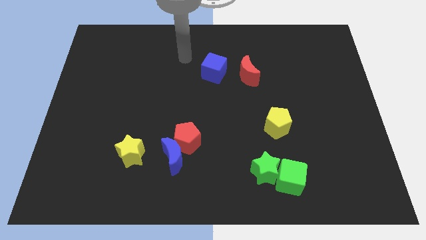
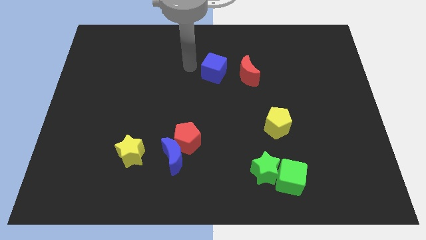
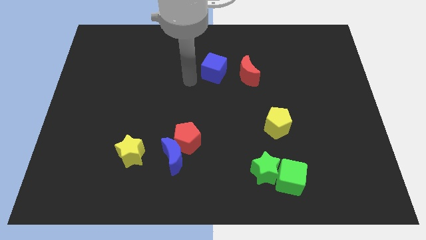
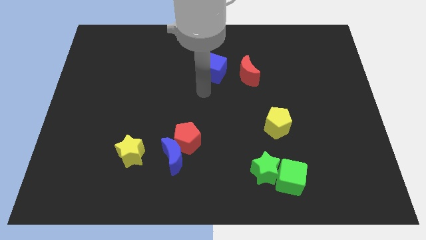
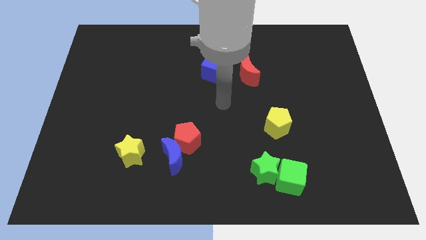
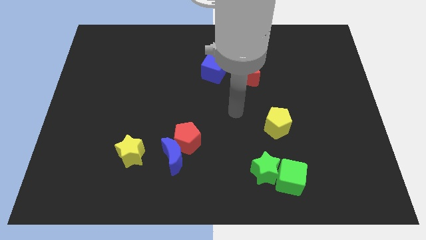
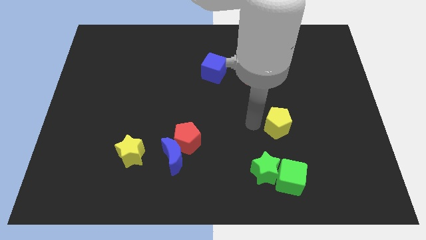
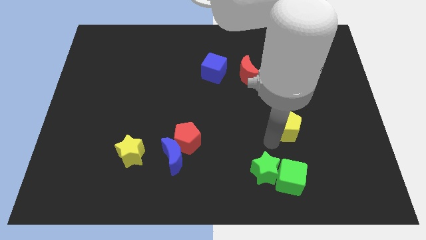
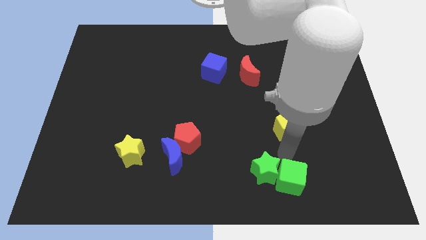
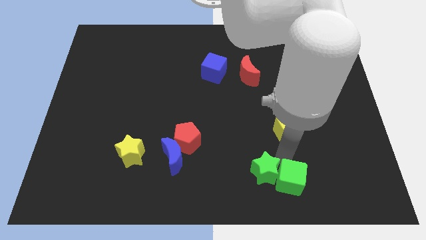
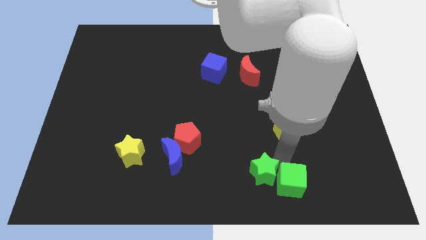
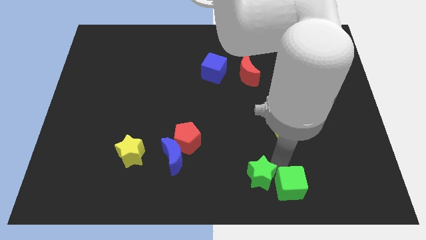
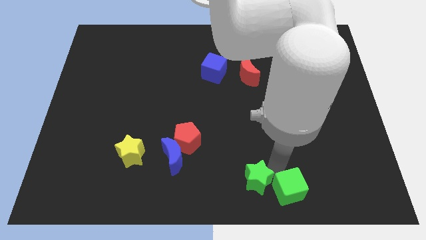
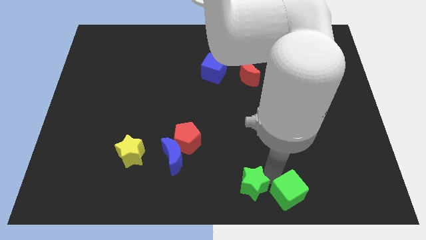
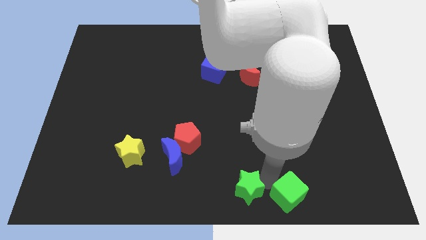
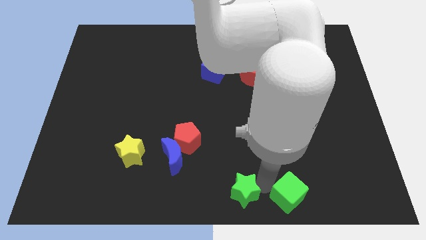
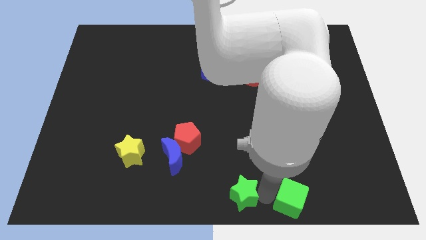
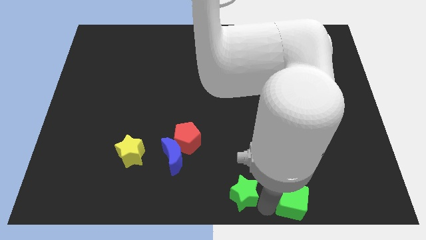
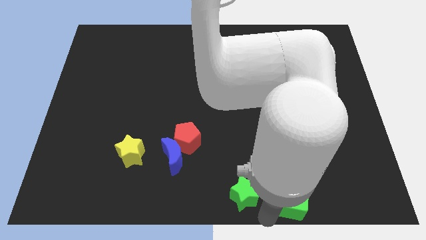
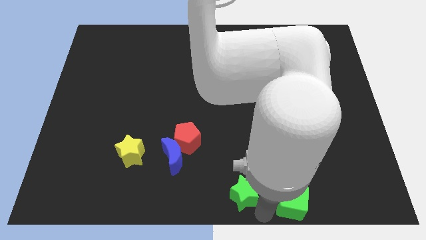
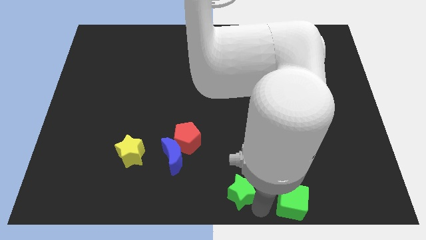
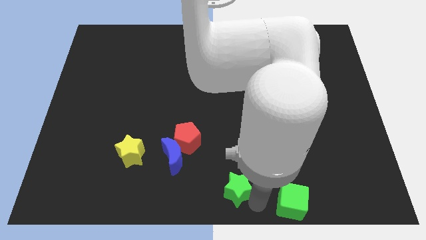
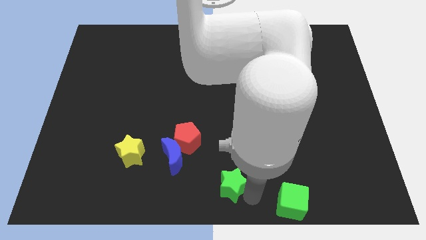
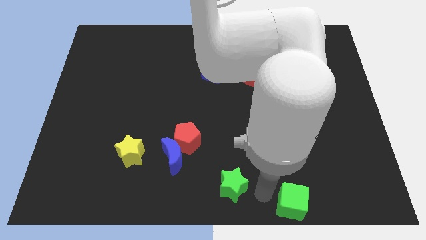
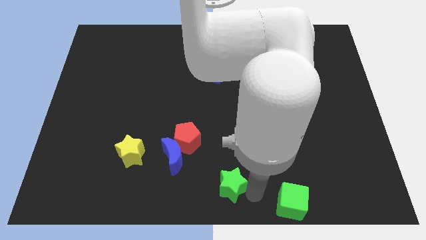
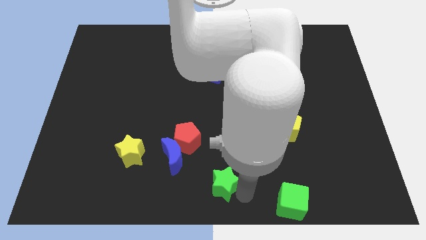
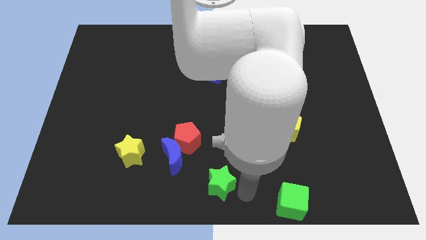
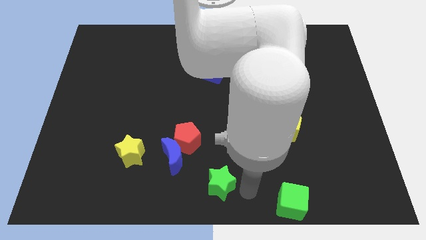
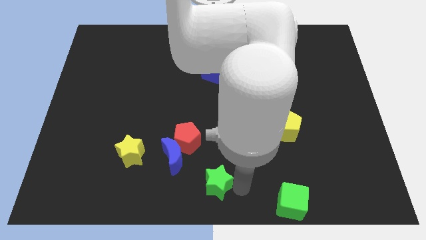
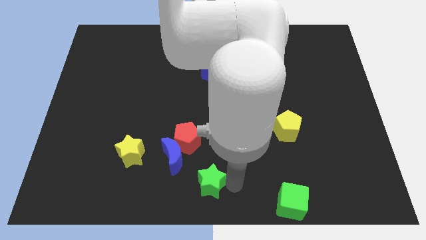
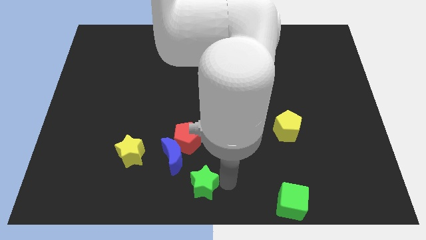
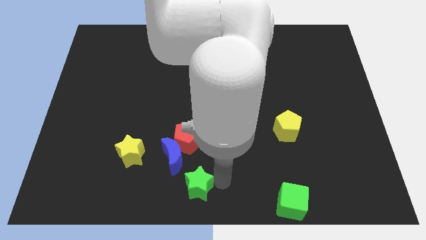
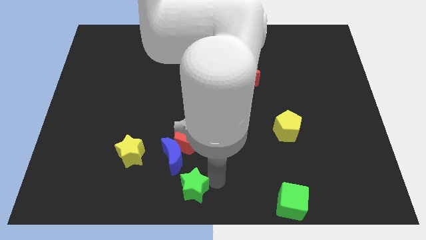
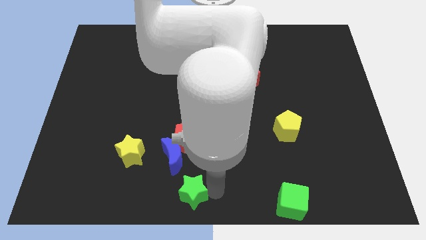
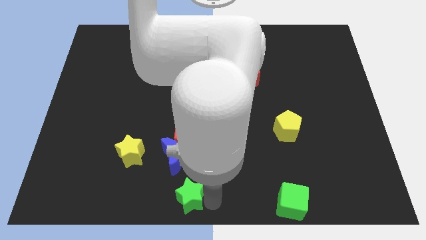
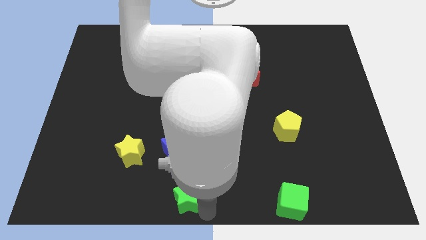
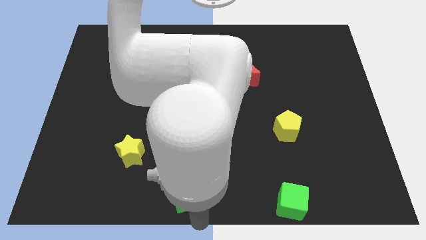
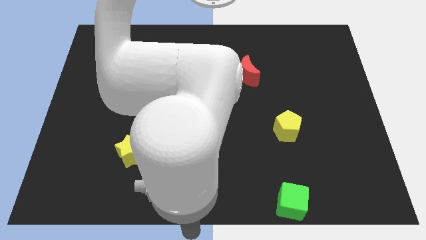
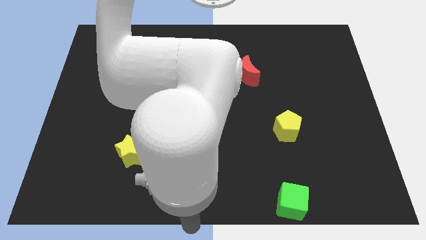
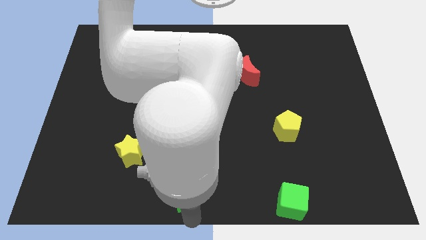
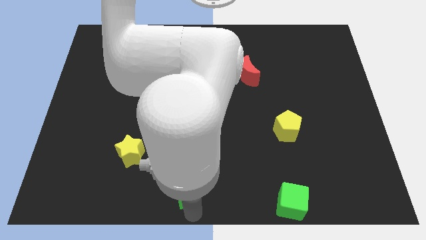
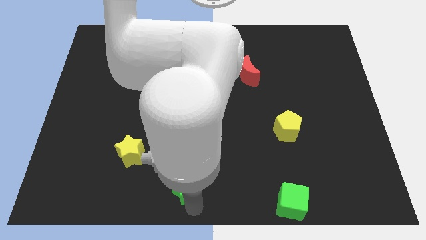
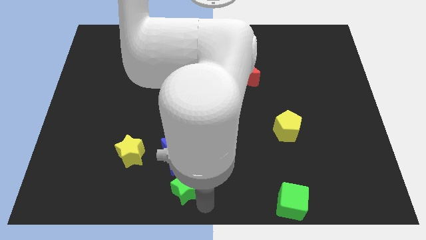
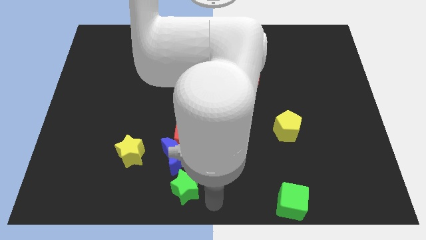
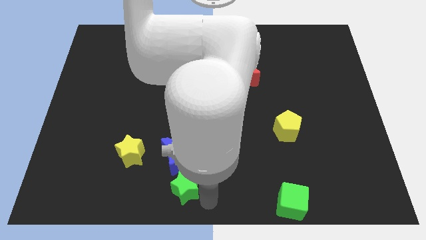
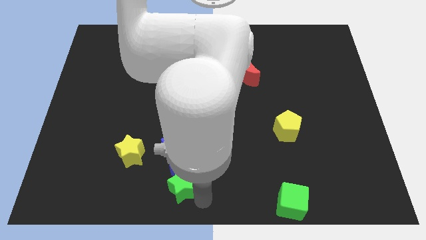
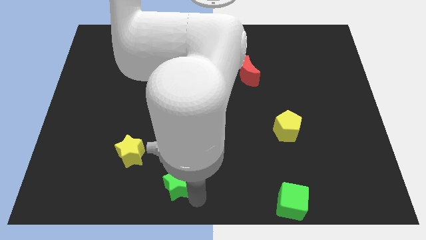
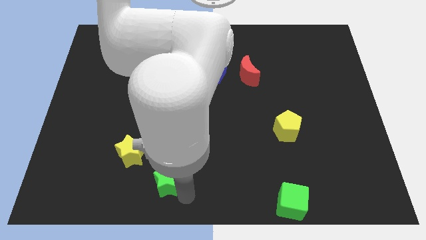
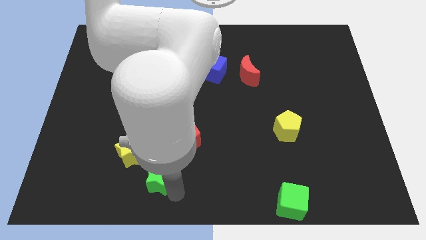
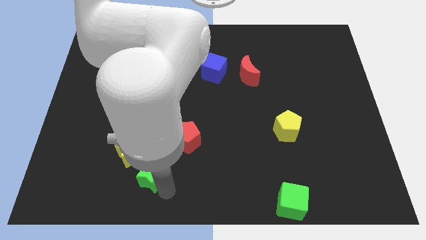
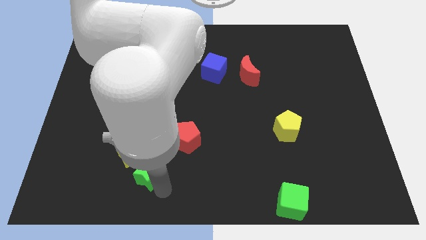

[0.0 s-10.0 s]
slide the green star next to the yellow star

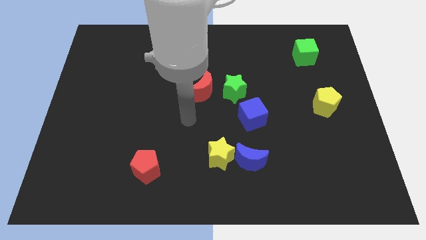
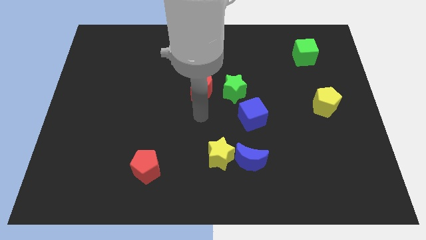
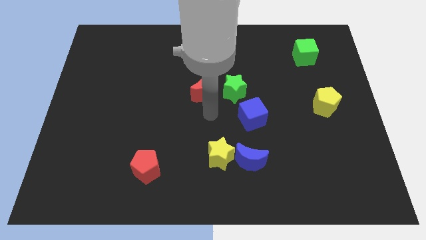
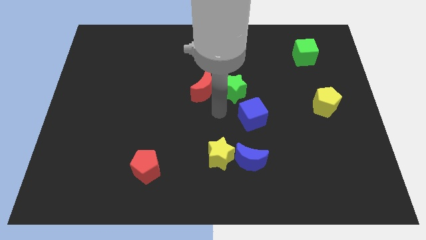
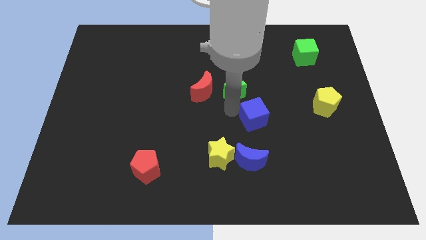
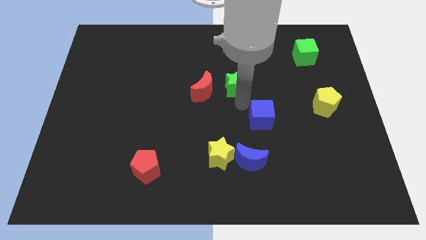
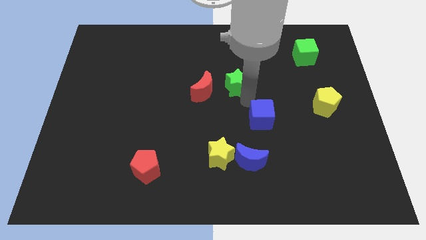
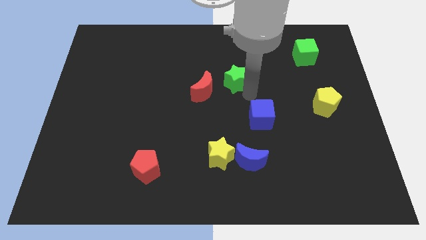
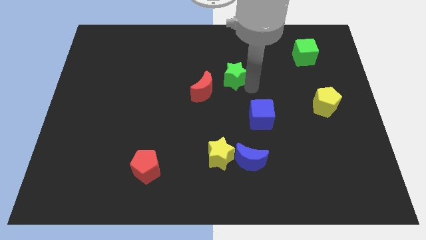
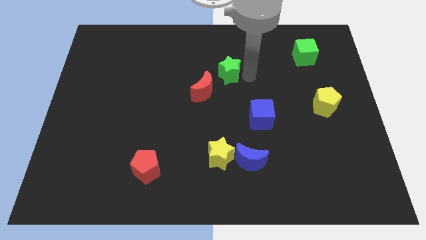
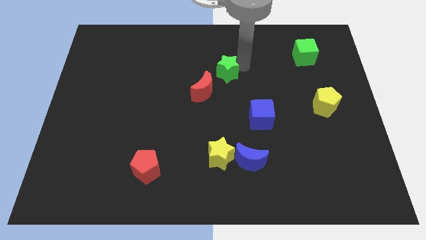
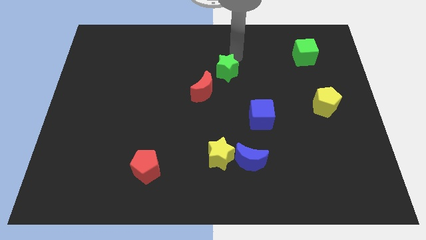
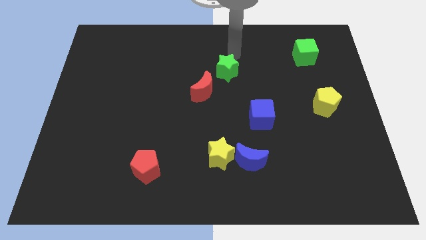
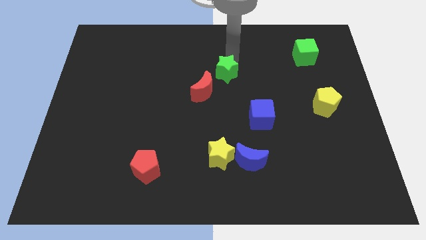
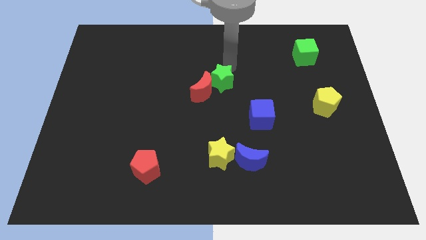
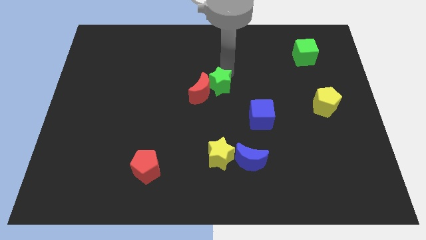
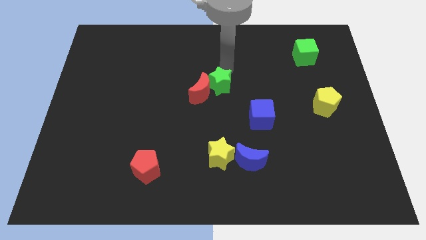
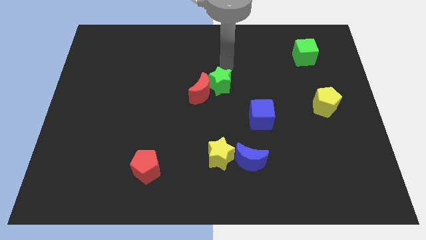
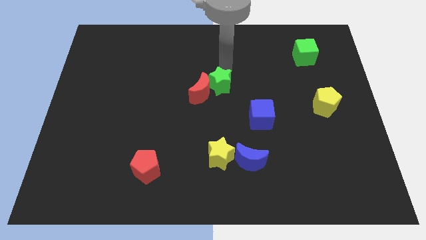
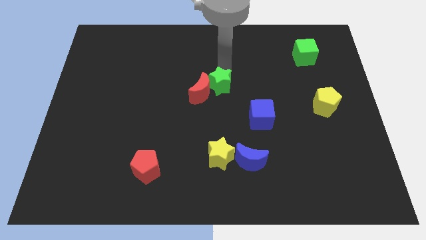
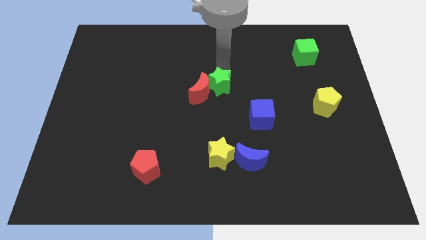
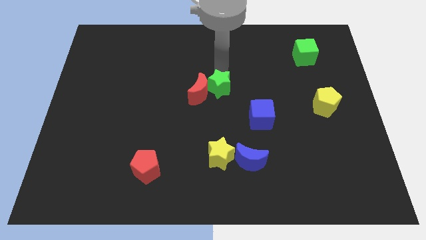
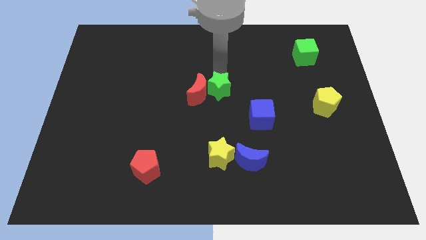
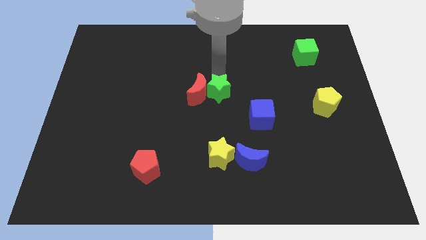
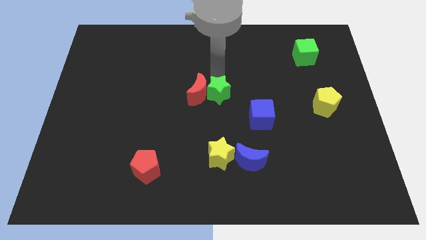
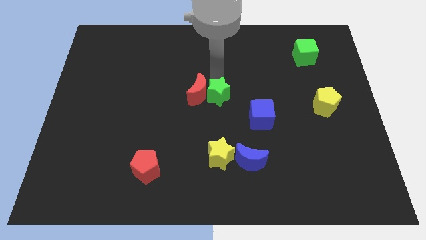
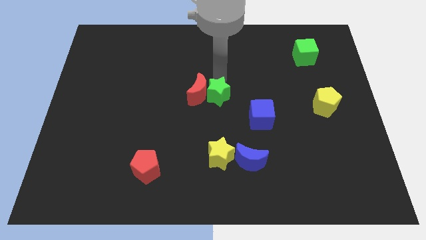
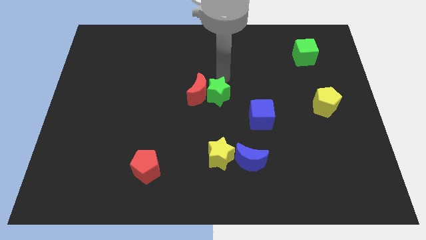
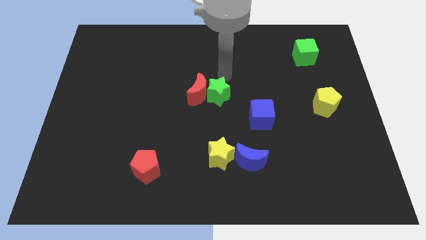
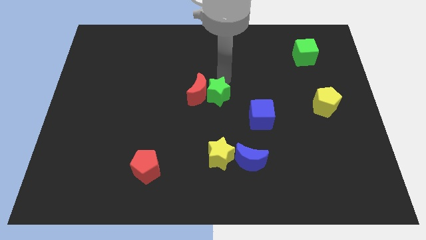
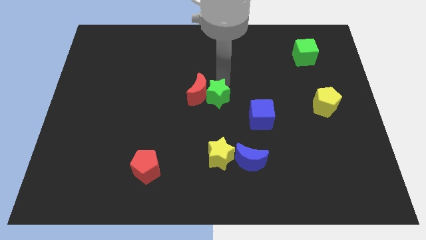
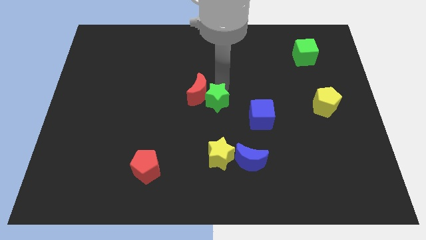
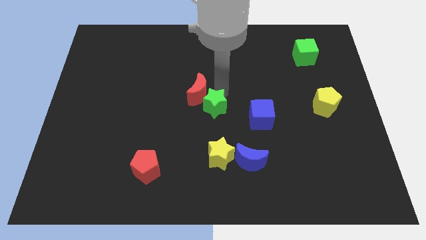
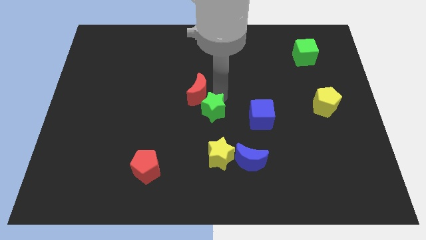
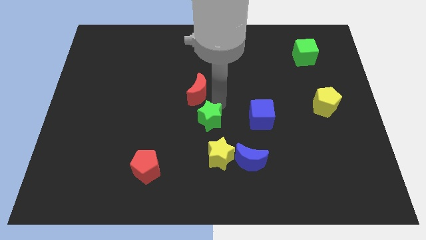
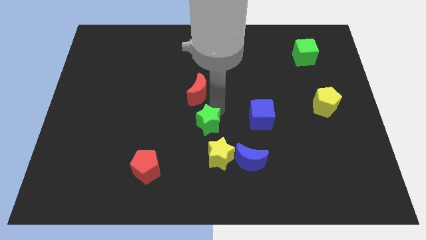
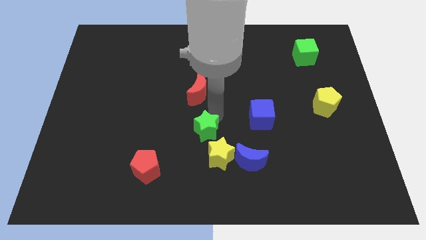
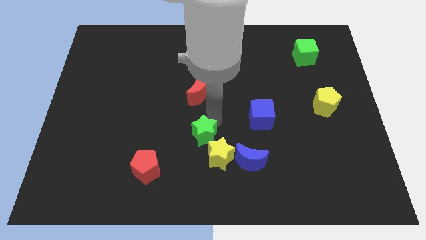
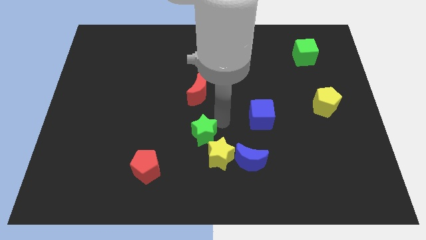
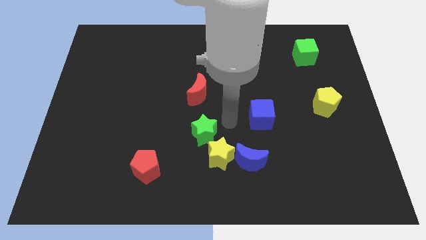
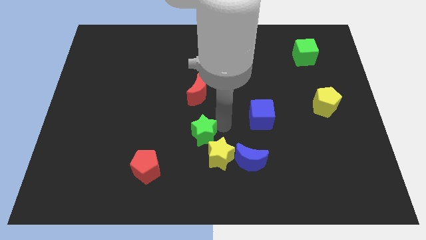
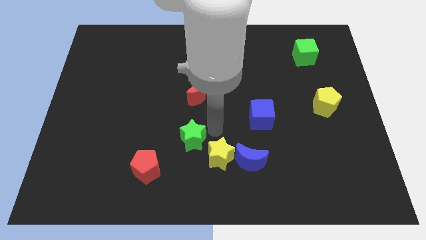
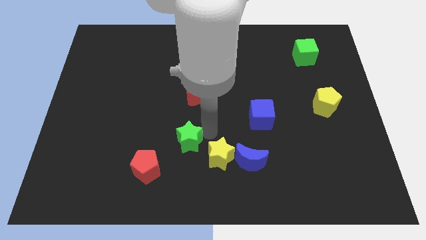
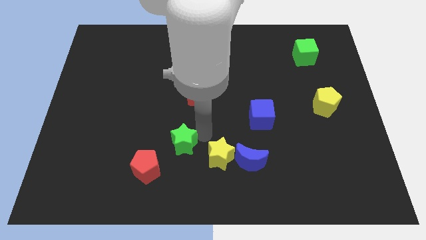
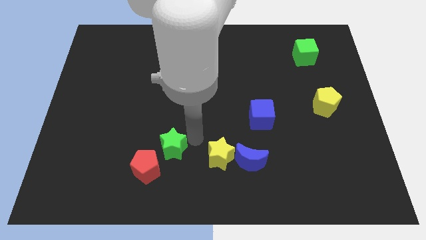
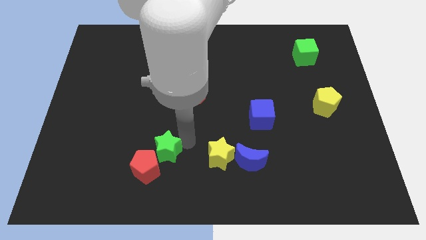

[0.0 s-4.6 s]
put the green star to the red pentagon
